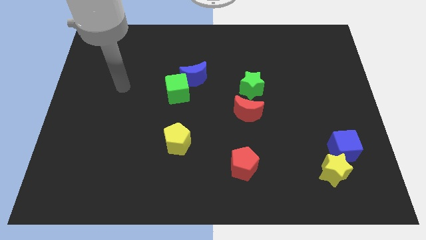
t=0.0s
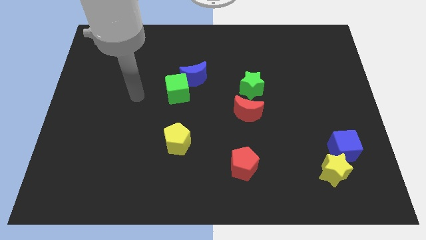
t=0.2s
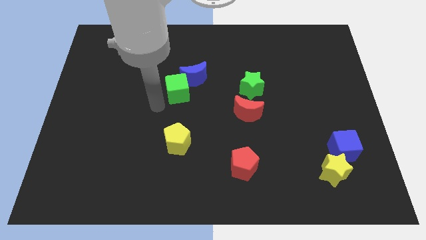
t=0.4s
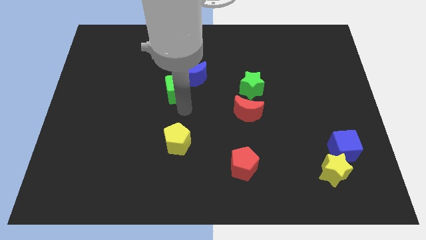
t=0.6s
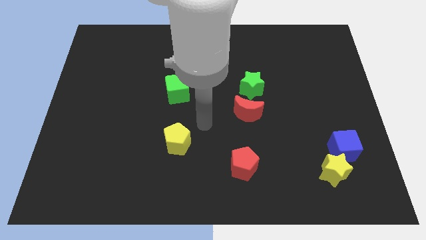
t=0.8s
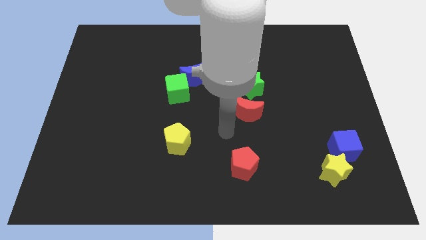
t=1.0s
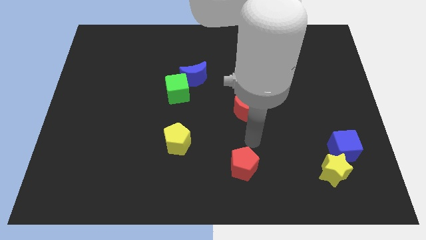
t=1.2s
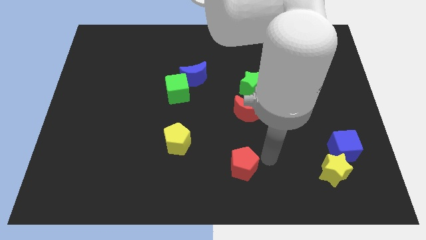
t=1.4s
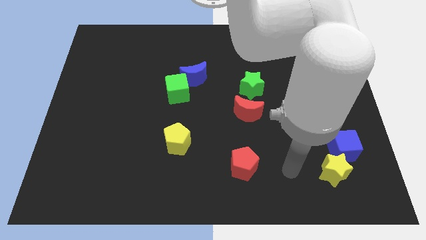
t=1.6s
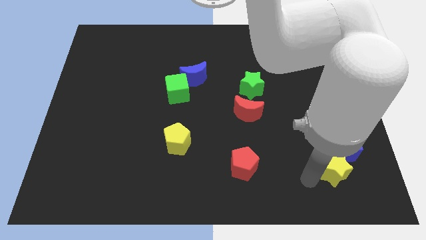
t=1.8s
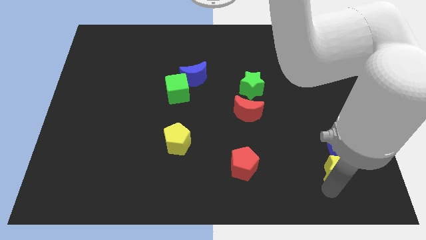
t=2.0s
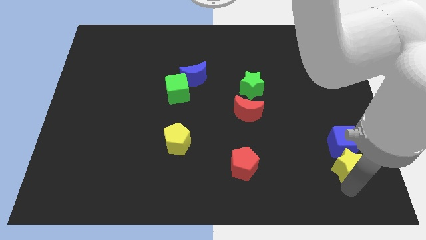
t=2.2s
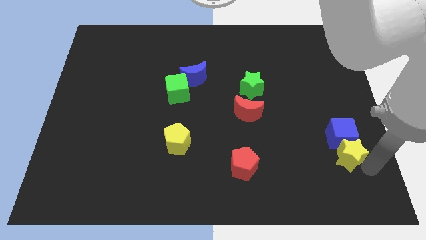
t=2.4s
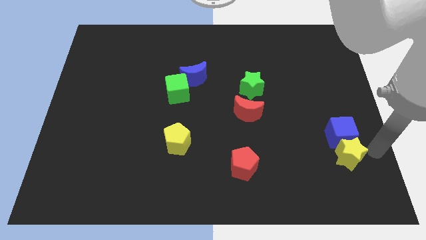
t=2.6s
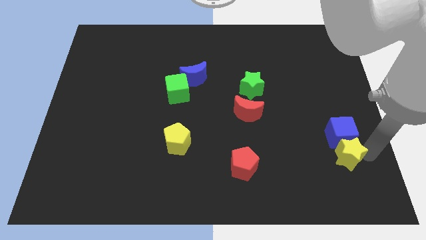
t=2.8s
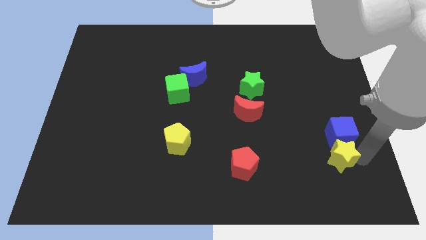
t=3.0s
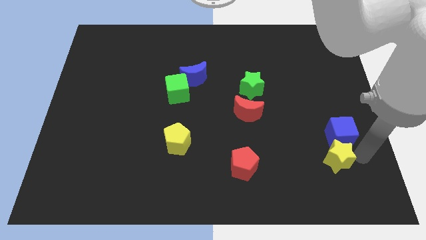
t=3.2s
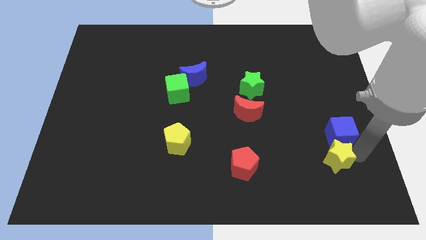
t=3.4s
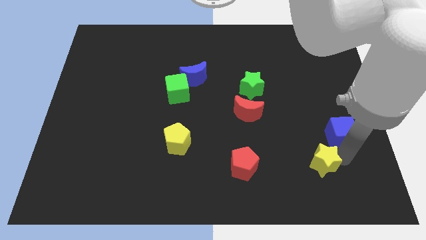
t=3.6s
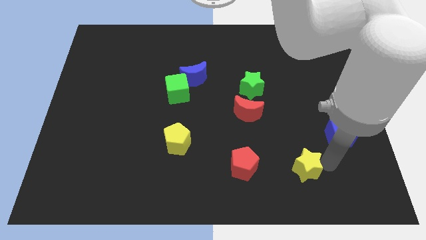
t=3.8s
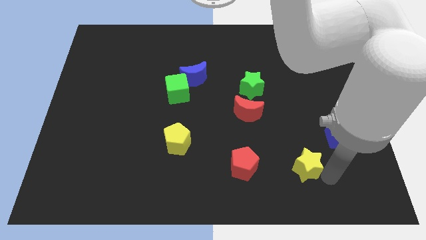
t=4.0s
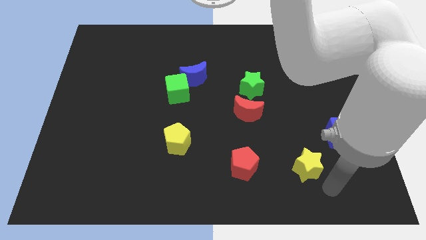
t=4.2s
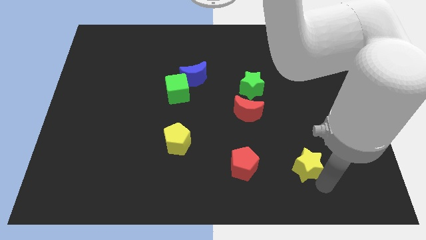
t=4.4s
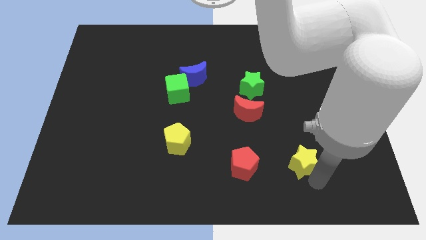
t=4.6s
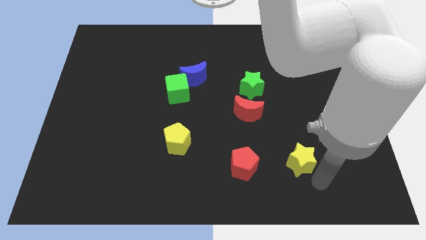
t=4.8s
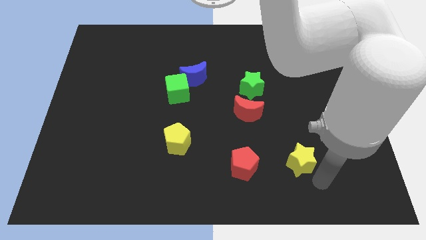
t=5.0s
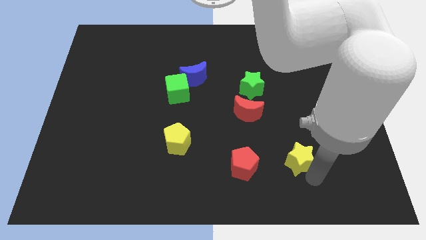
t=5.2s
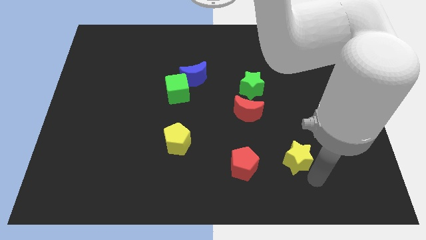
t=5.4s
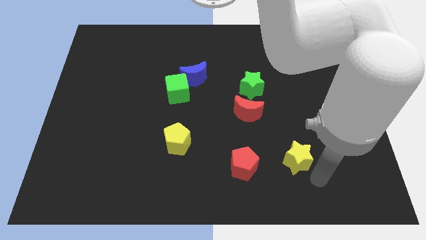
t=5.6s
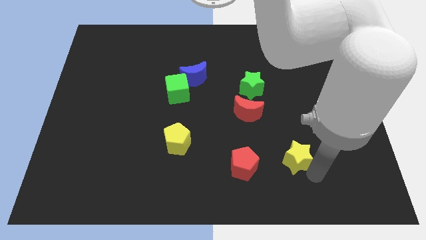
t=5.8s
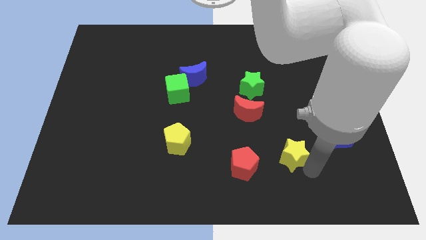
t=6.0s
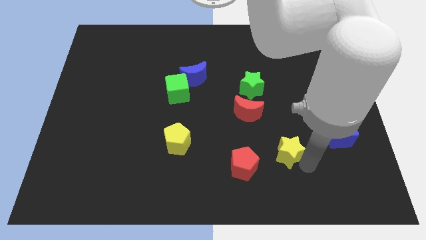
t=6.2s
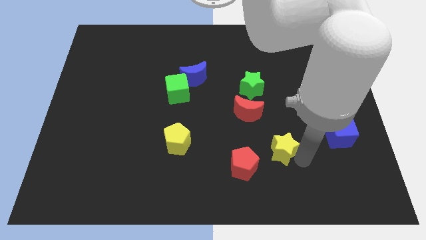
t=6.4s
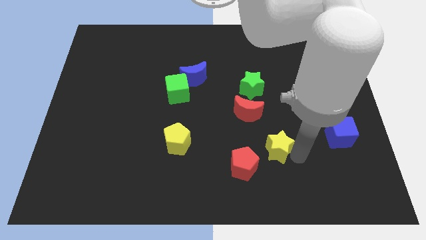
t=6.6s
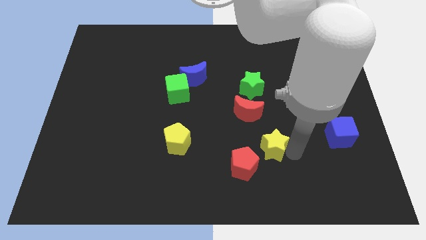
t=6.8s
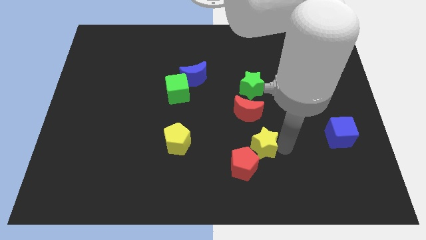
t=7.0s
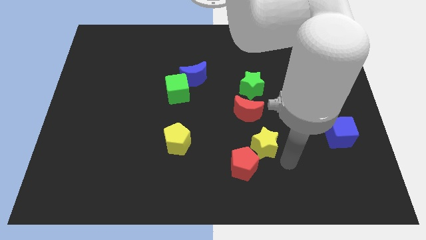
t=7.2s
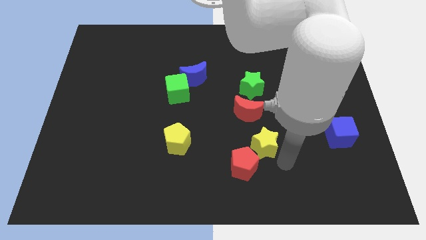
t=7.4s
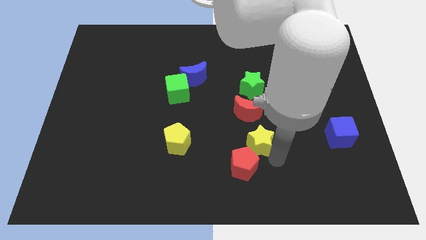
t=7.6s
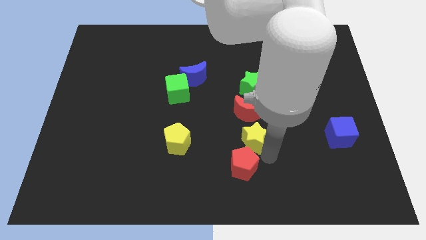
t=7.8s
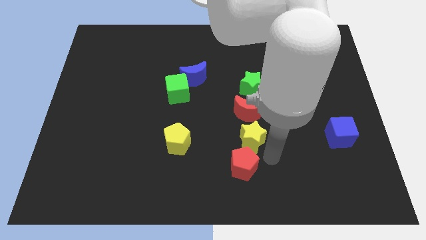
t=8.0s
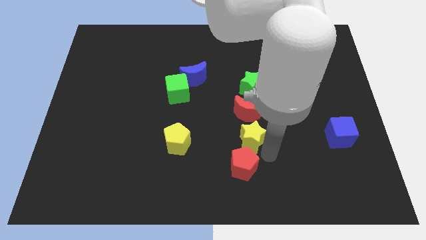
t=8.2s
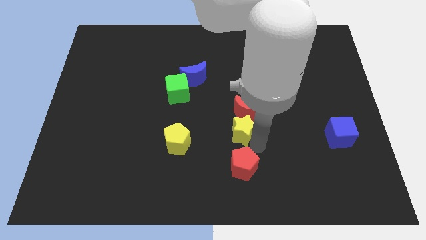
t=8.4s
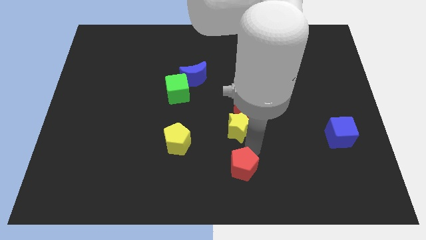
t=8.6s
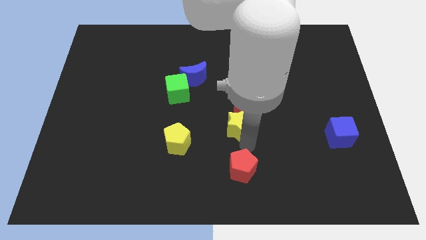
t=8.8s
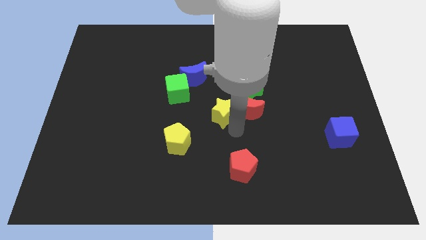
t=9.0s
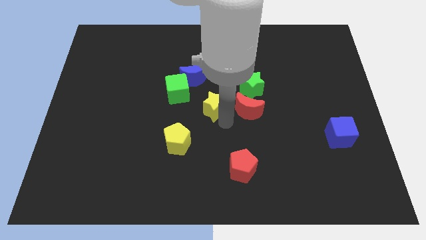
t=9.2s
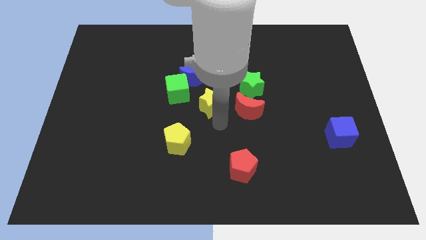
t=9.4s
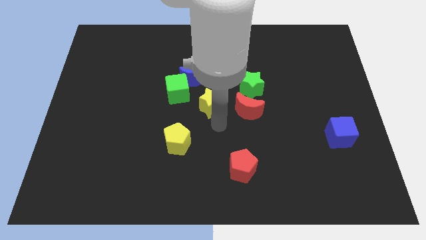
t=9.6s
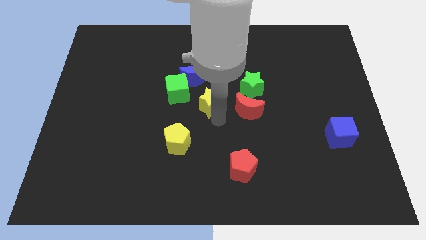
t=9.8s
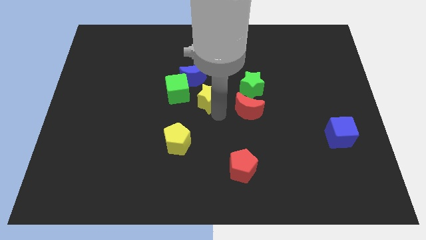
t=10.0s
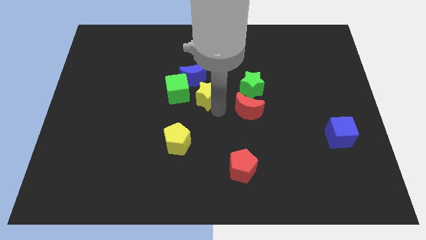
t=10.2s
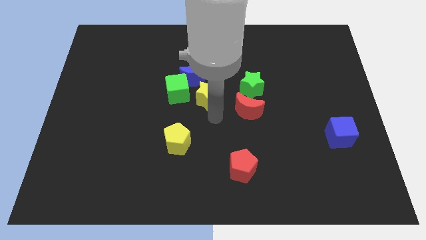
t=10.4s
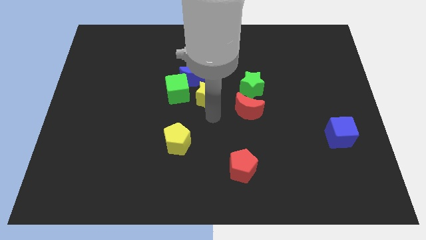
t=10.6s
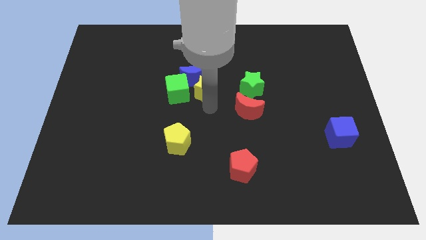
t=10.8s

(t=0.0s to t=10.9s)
move the yellow star to the blue moon

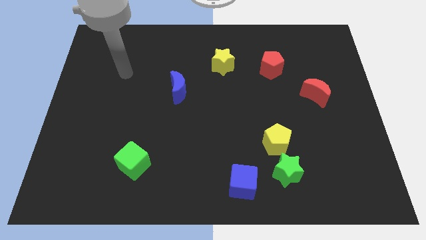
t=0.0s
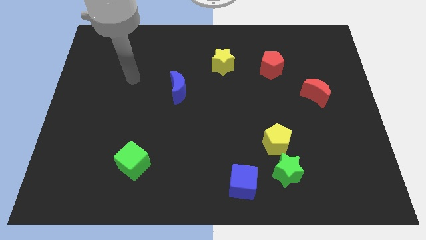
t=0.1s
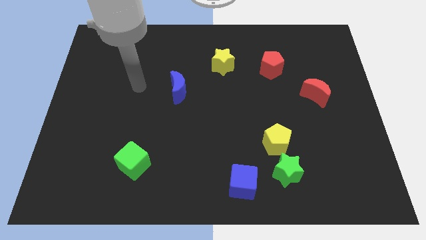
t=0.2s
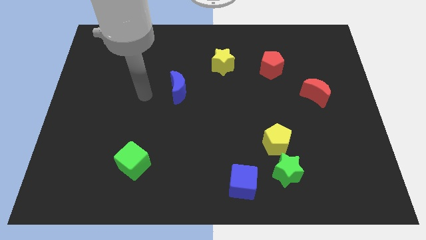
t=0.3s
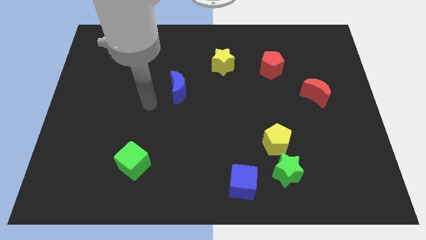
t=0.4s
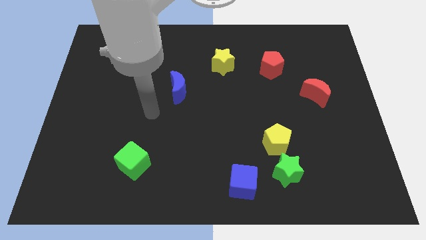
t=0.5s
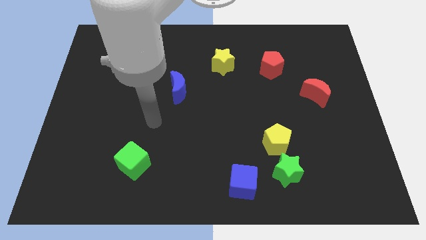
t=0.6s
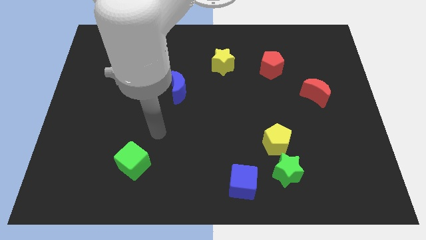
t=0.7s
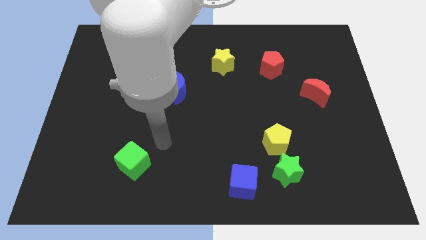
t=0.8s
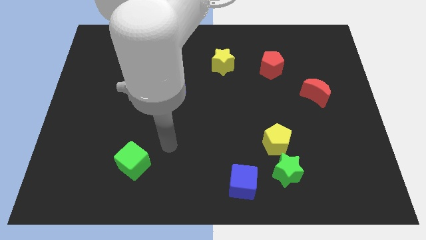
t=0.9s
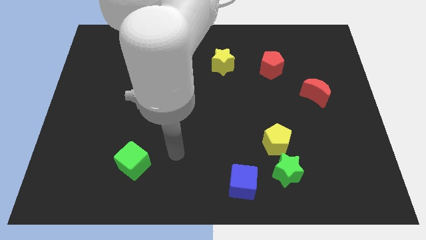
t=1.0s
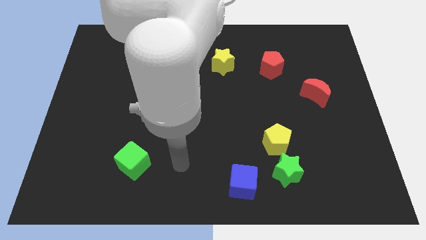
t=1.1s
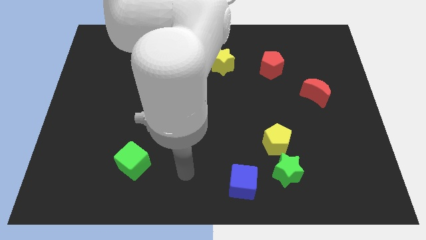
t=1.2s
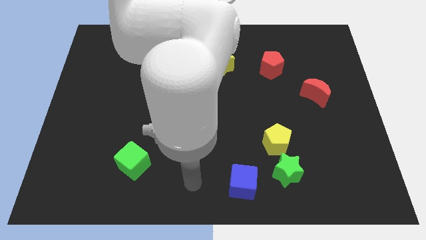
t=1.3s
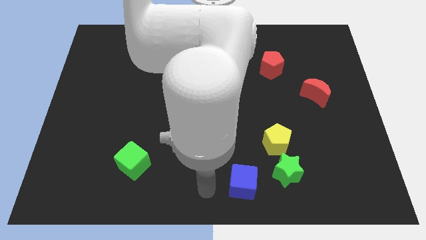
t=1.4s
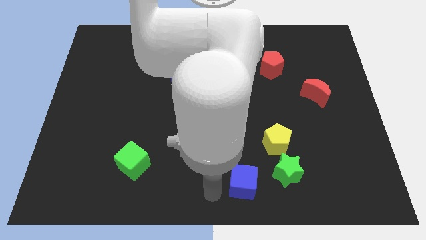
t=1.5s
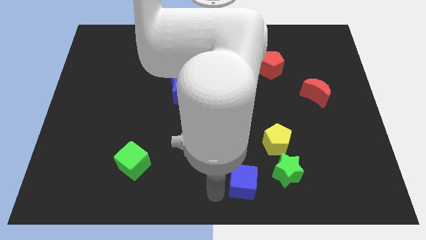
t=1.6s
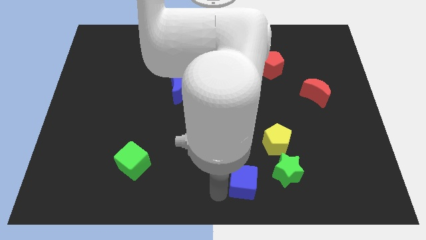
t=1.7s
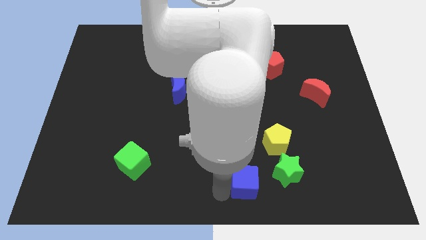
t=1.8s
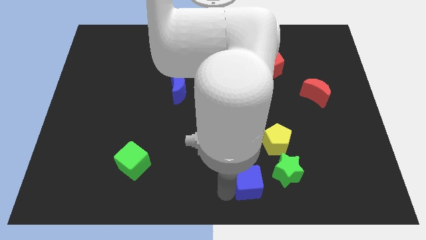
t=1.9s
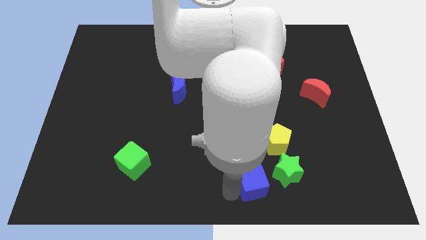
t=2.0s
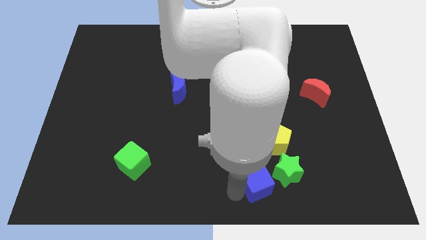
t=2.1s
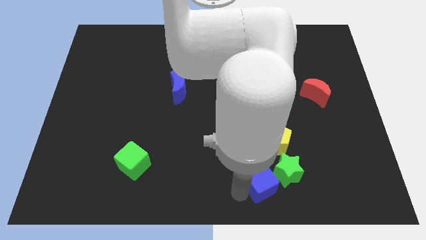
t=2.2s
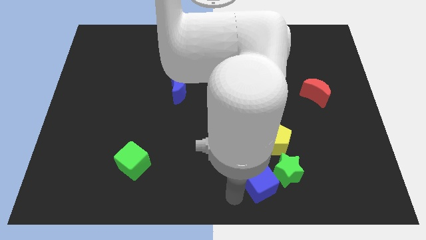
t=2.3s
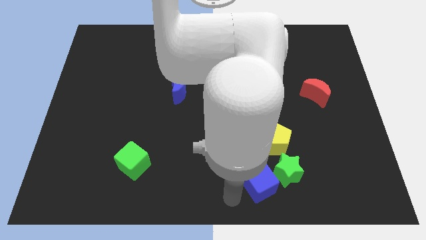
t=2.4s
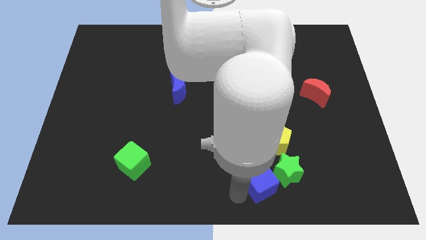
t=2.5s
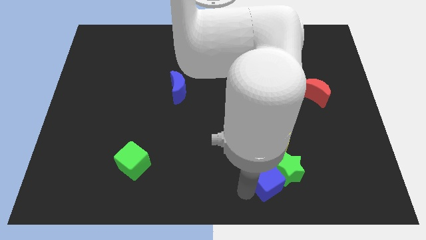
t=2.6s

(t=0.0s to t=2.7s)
push the blue cube next to the green star
